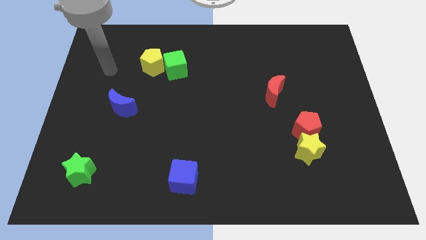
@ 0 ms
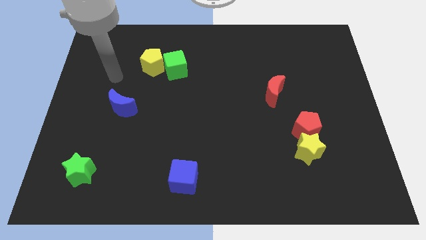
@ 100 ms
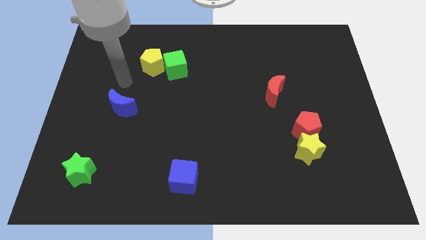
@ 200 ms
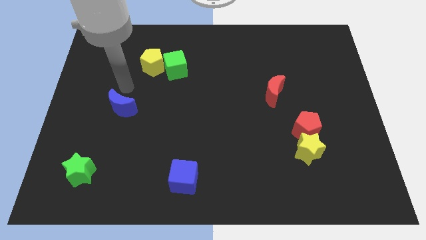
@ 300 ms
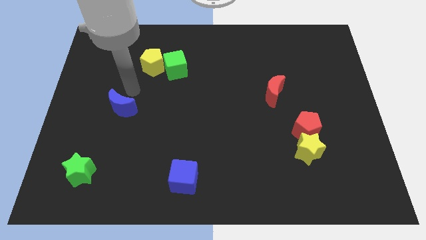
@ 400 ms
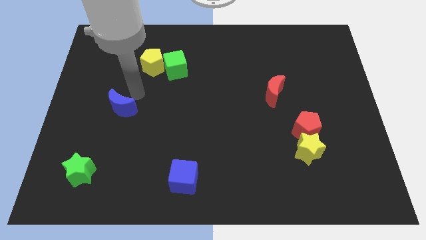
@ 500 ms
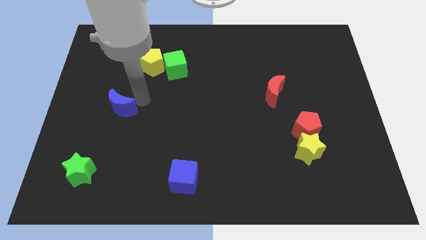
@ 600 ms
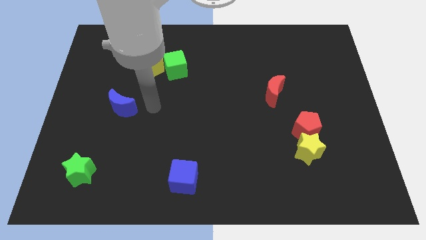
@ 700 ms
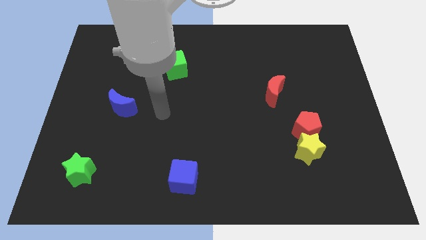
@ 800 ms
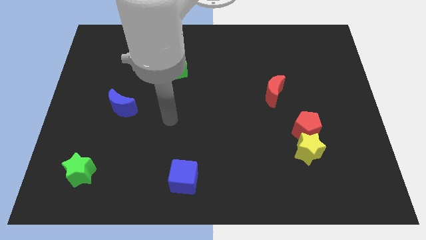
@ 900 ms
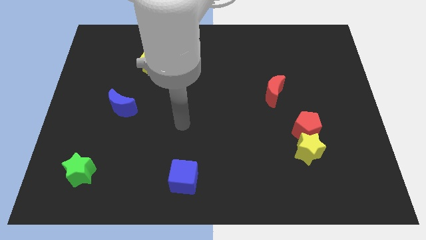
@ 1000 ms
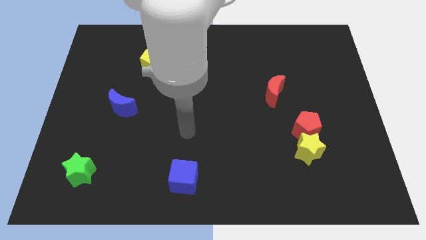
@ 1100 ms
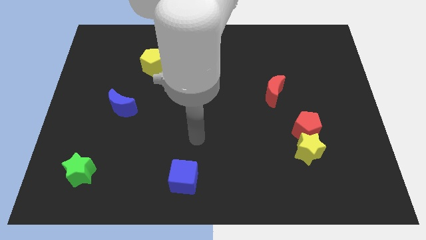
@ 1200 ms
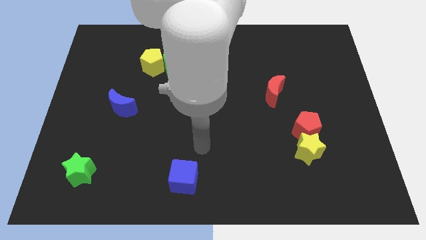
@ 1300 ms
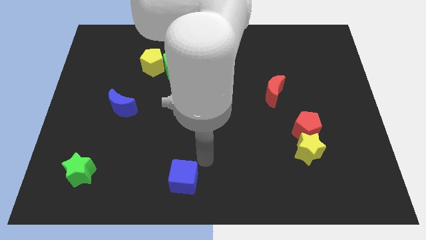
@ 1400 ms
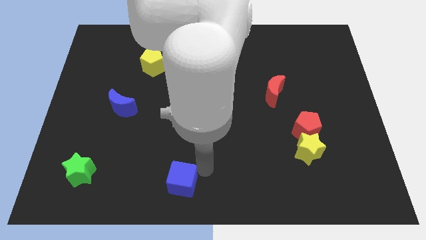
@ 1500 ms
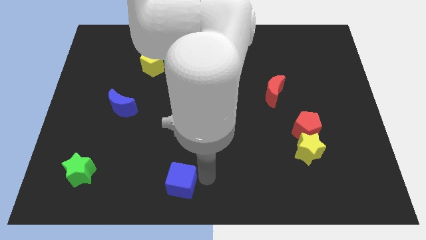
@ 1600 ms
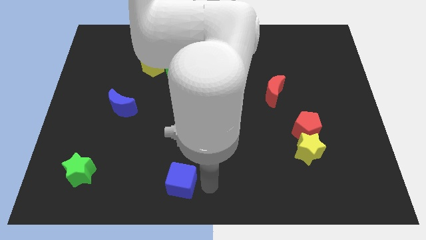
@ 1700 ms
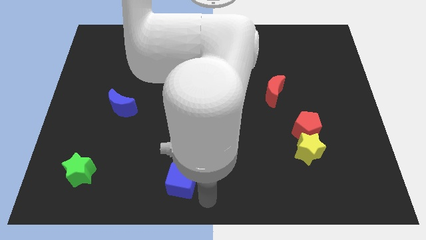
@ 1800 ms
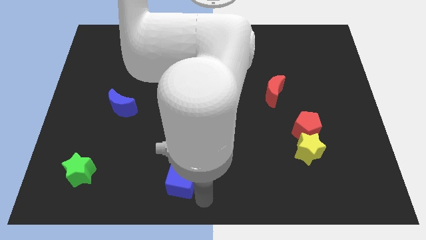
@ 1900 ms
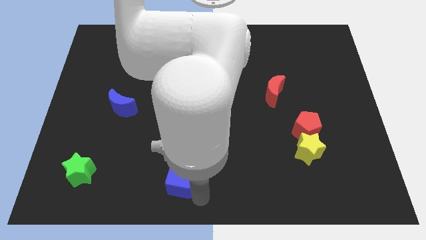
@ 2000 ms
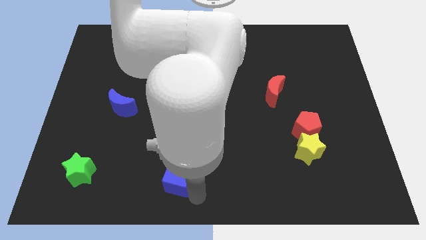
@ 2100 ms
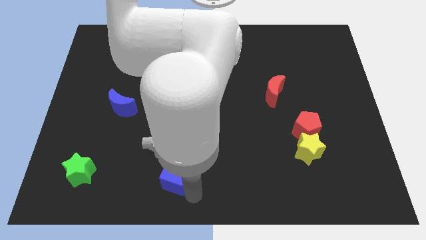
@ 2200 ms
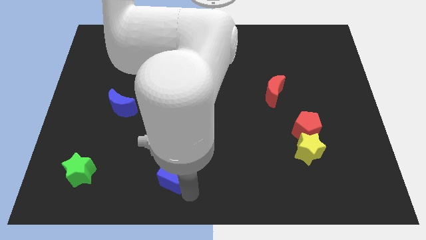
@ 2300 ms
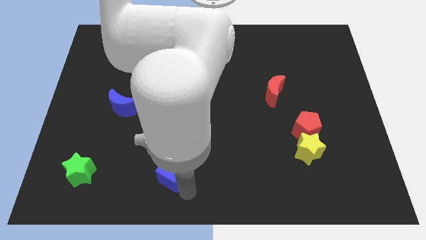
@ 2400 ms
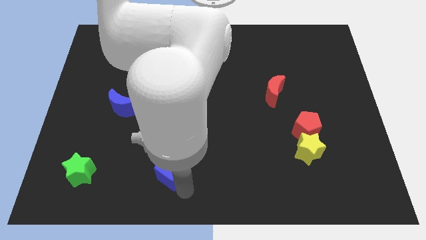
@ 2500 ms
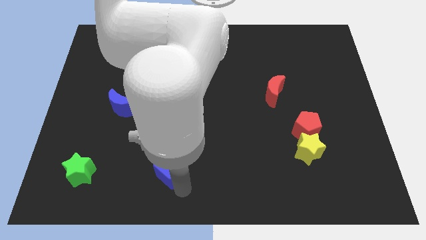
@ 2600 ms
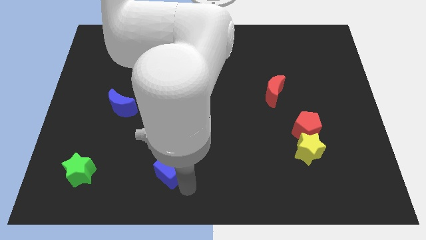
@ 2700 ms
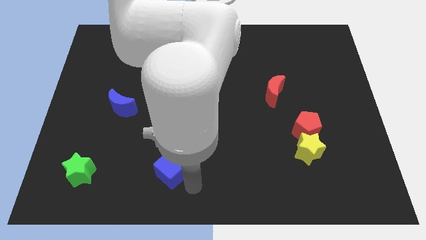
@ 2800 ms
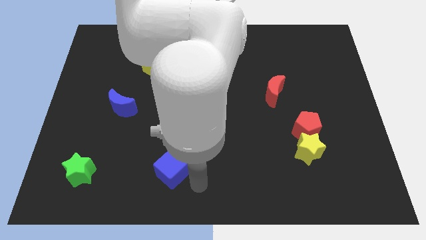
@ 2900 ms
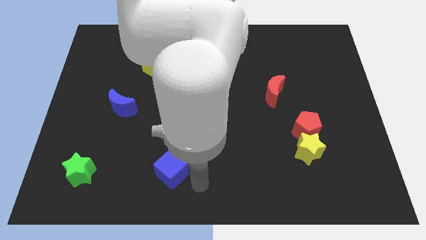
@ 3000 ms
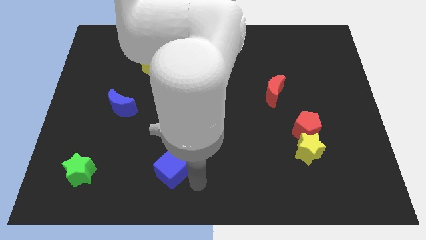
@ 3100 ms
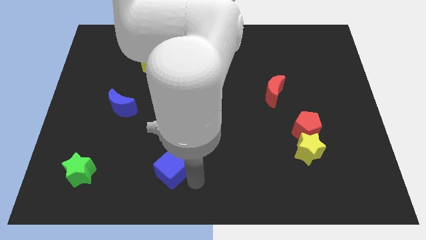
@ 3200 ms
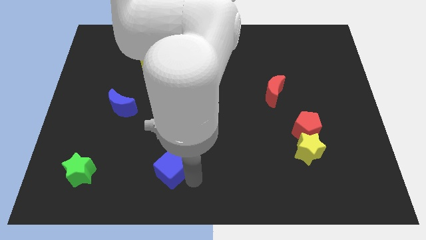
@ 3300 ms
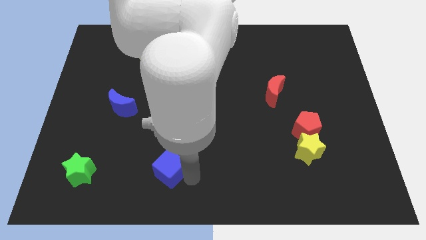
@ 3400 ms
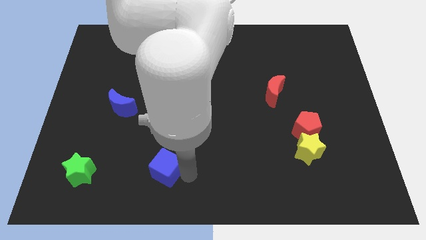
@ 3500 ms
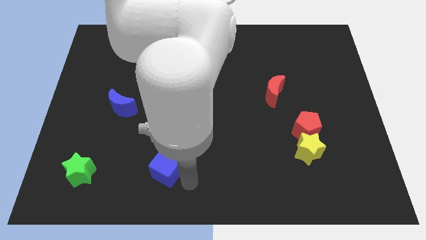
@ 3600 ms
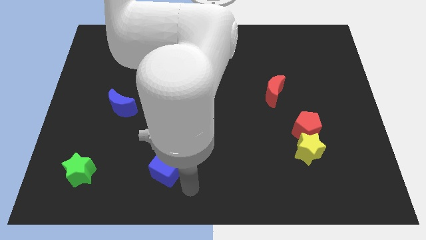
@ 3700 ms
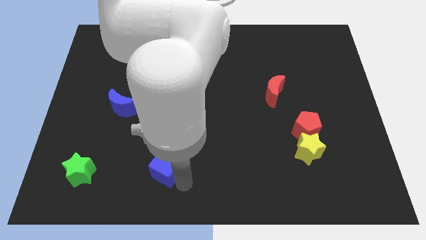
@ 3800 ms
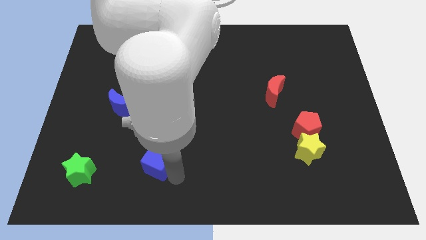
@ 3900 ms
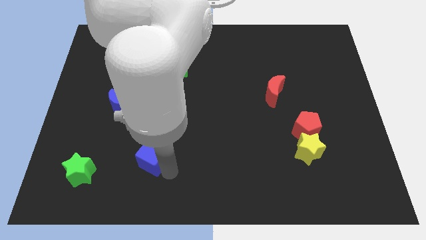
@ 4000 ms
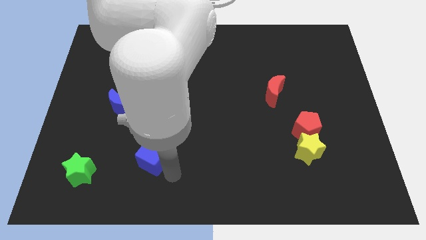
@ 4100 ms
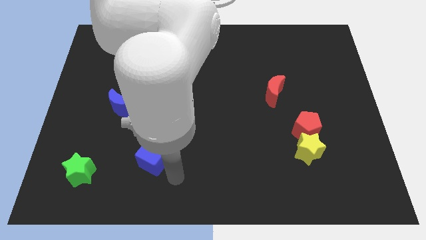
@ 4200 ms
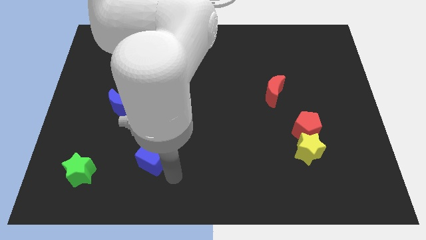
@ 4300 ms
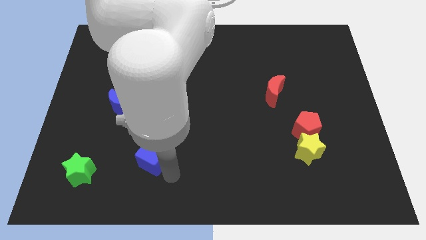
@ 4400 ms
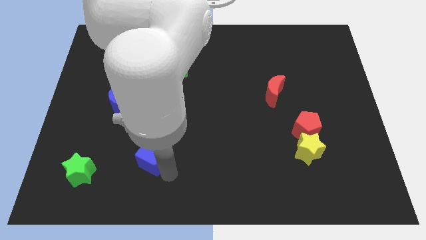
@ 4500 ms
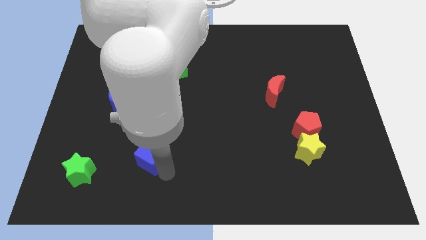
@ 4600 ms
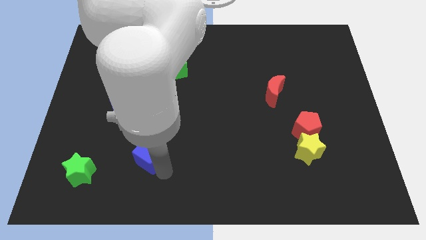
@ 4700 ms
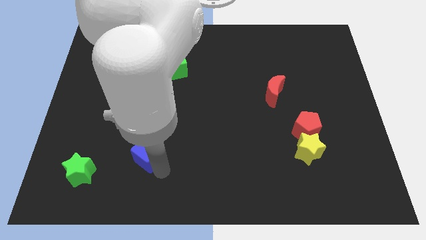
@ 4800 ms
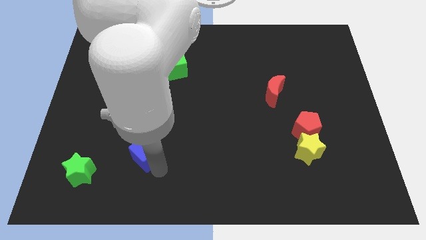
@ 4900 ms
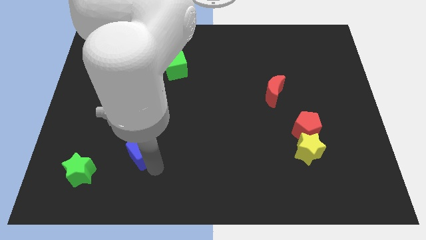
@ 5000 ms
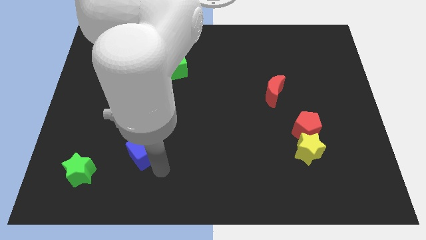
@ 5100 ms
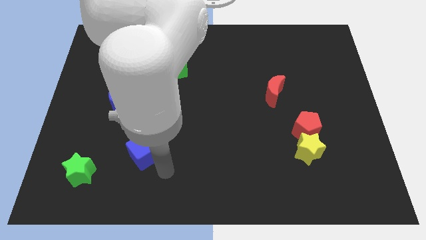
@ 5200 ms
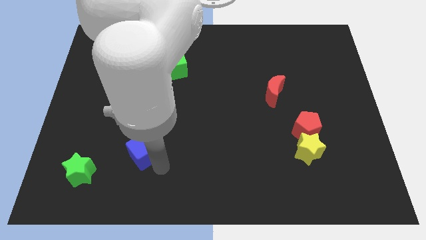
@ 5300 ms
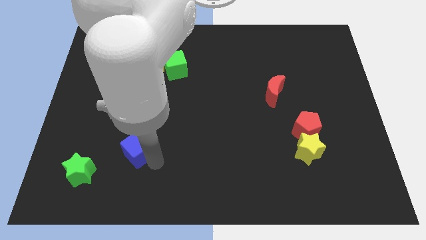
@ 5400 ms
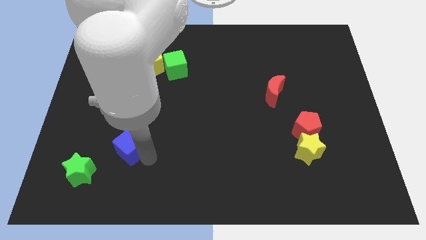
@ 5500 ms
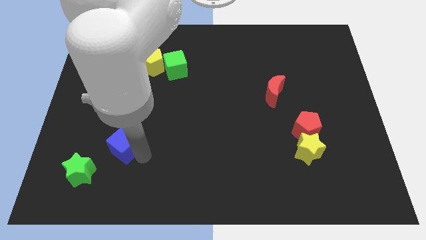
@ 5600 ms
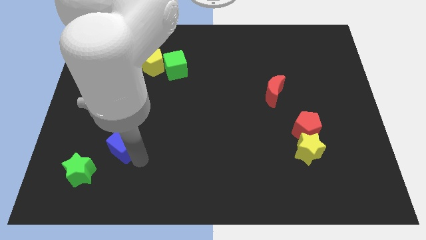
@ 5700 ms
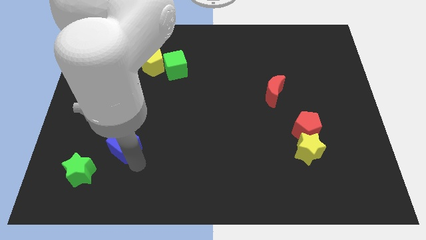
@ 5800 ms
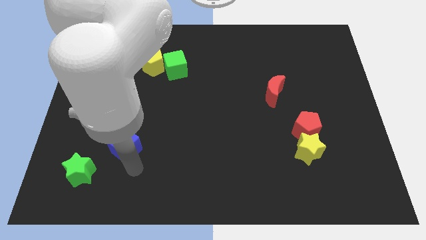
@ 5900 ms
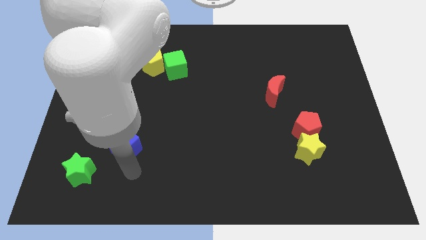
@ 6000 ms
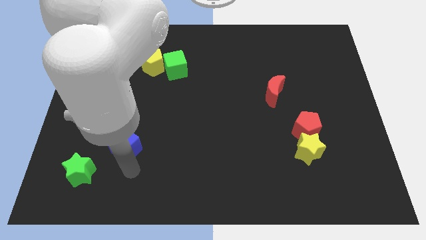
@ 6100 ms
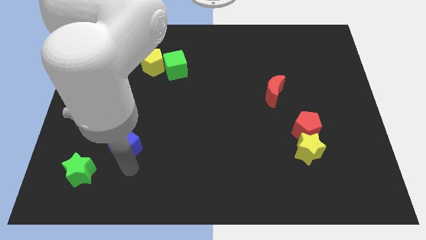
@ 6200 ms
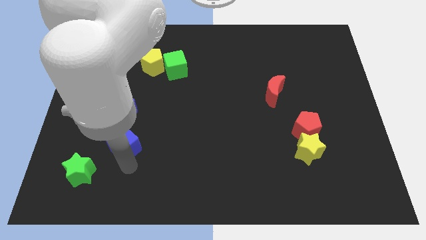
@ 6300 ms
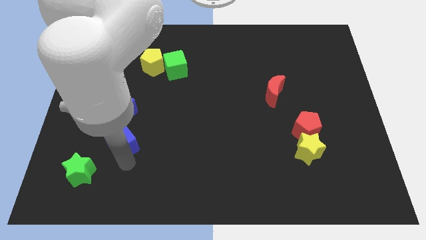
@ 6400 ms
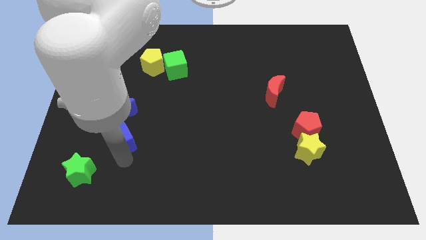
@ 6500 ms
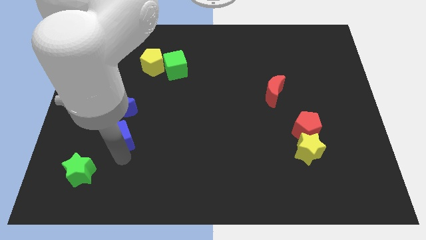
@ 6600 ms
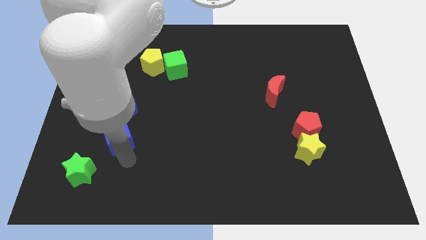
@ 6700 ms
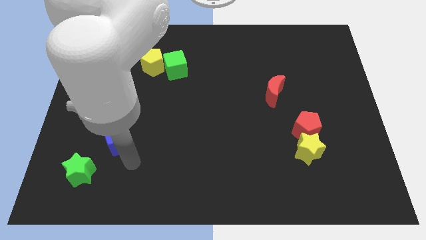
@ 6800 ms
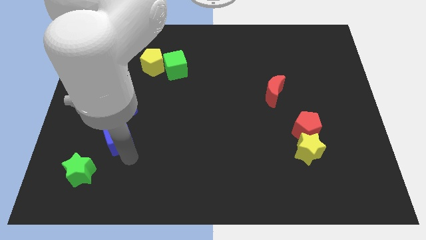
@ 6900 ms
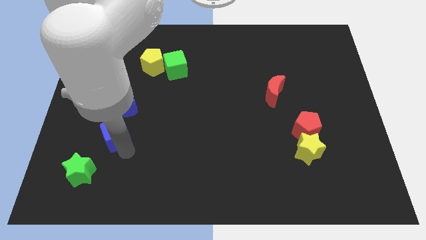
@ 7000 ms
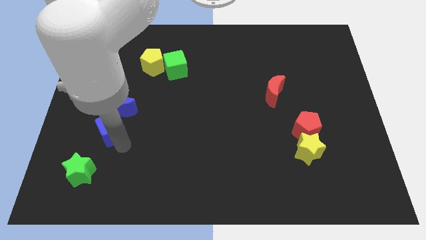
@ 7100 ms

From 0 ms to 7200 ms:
push the blue cube diagonally upwards and left

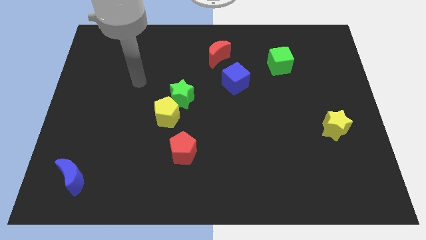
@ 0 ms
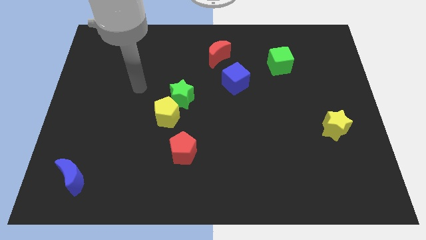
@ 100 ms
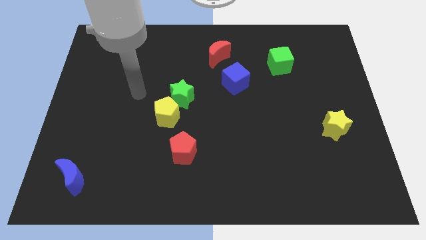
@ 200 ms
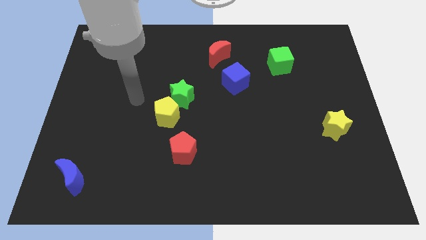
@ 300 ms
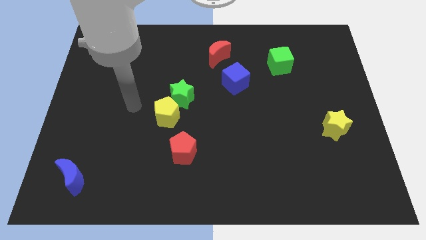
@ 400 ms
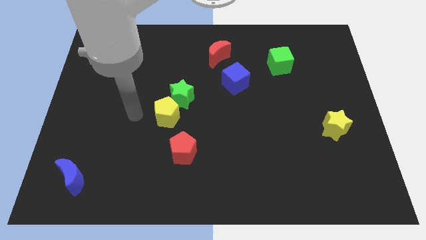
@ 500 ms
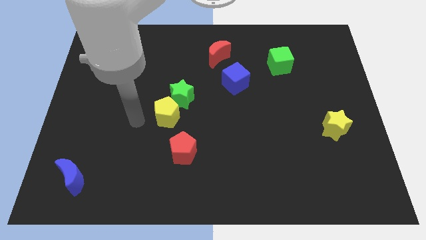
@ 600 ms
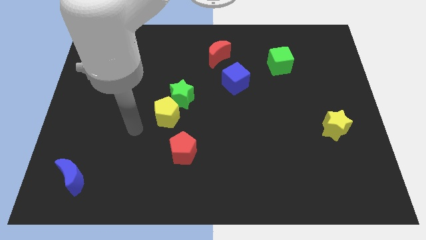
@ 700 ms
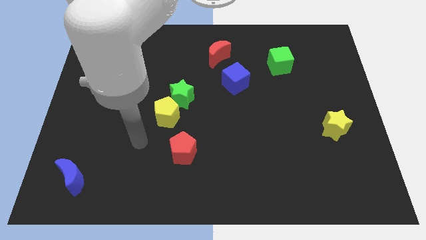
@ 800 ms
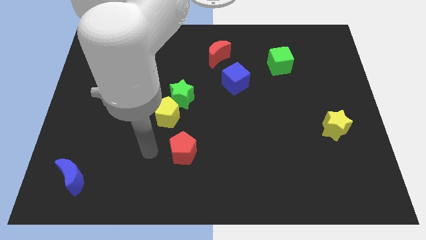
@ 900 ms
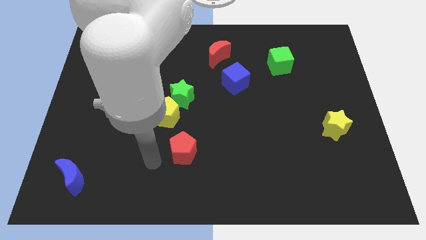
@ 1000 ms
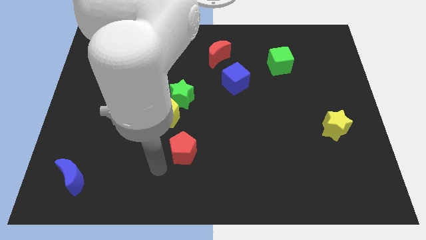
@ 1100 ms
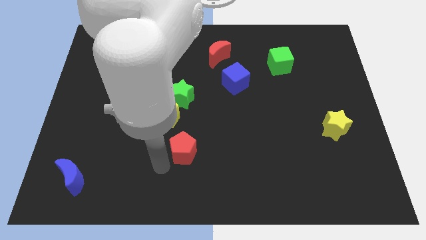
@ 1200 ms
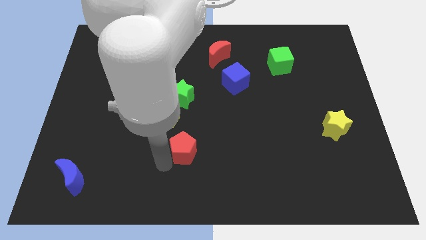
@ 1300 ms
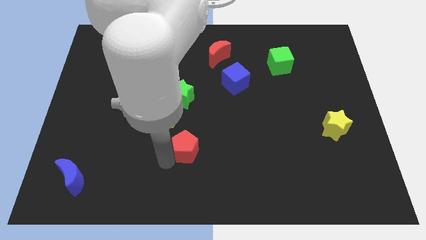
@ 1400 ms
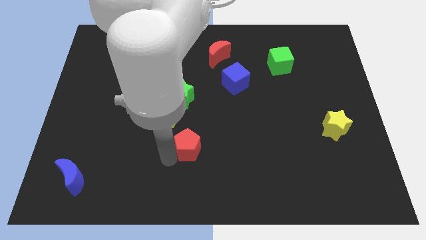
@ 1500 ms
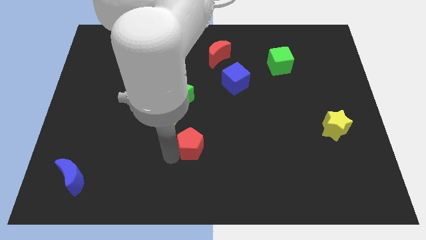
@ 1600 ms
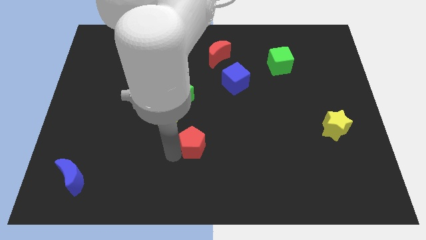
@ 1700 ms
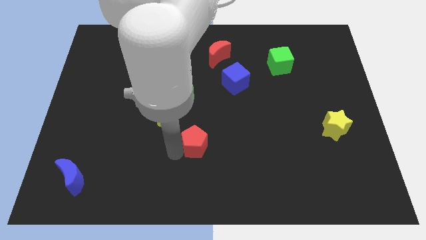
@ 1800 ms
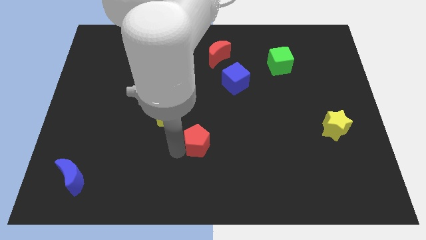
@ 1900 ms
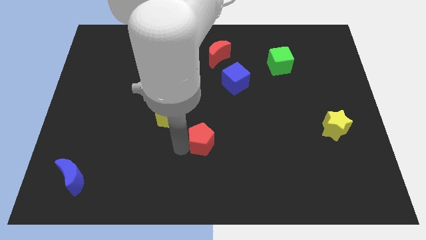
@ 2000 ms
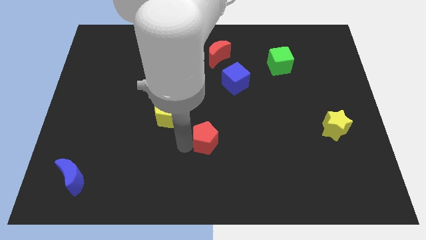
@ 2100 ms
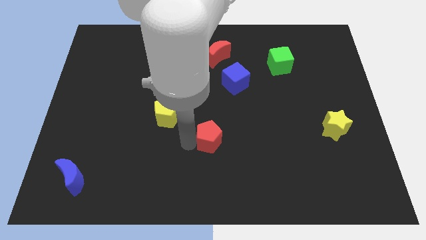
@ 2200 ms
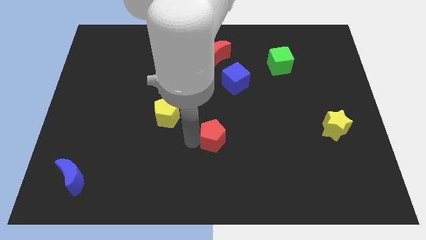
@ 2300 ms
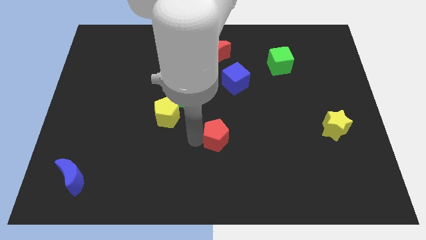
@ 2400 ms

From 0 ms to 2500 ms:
slide the red pentagon up and then to the right somewhat
